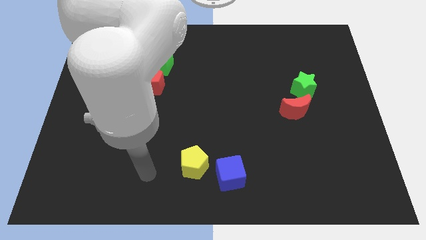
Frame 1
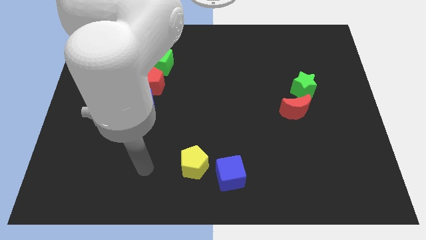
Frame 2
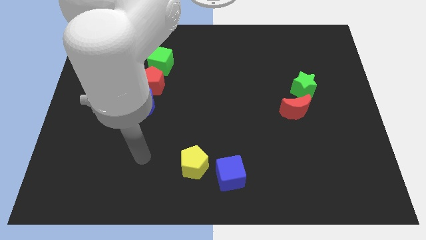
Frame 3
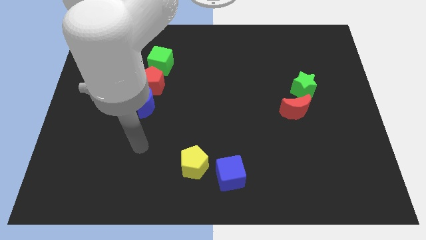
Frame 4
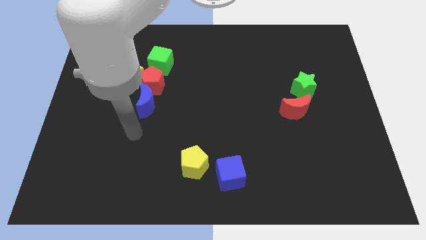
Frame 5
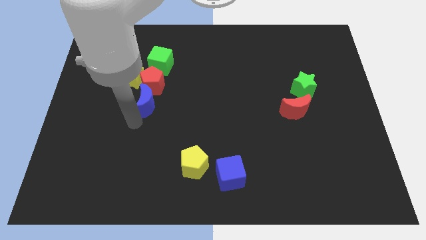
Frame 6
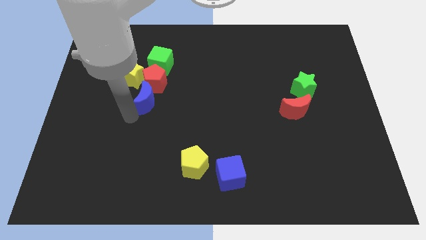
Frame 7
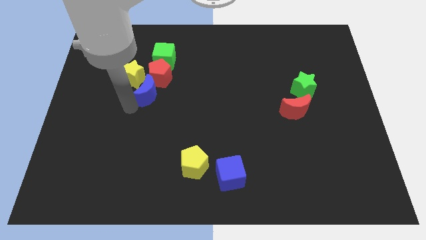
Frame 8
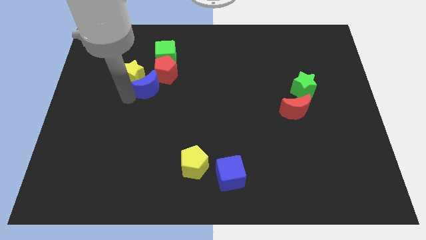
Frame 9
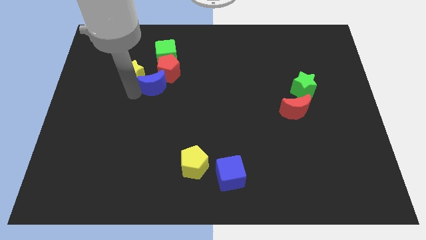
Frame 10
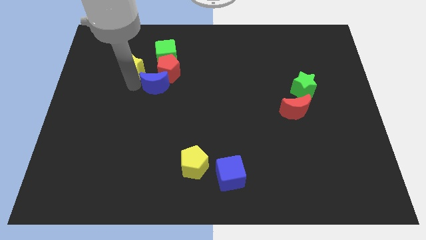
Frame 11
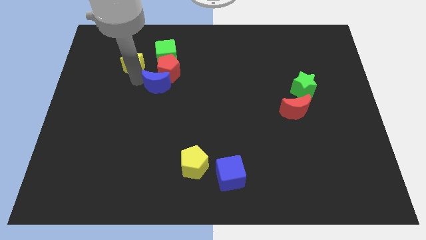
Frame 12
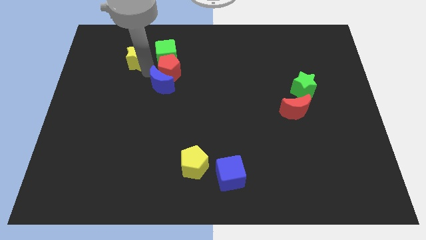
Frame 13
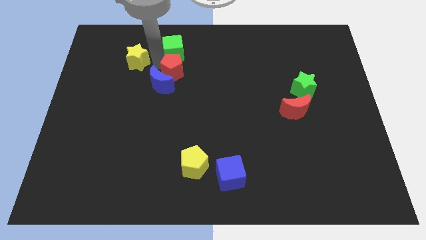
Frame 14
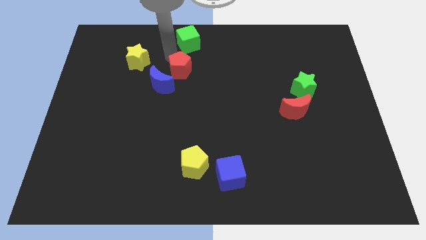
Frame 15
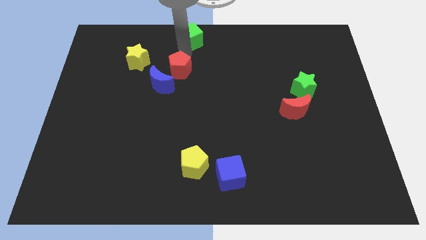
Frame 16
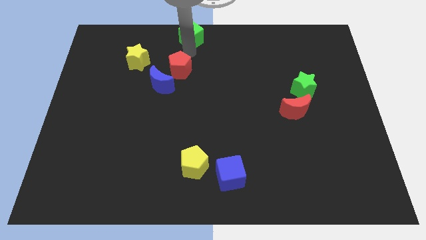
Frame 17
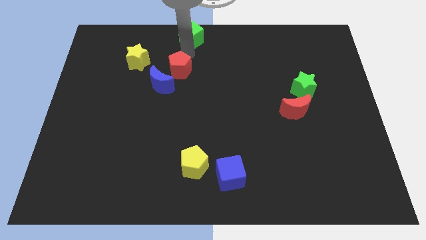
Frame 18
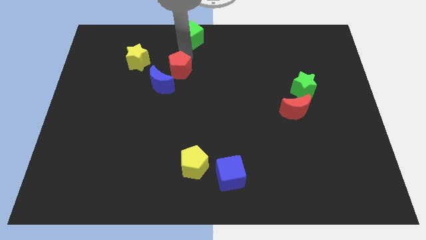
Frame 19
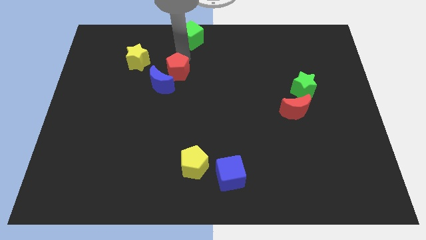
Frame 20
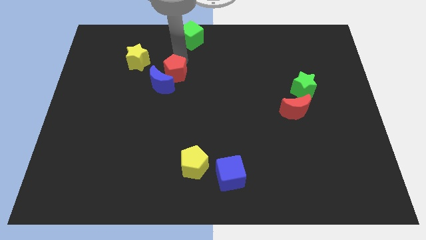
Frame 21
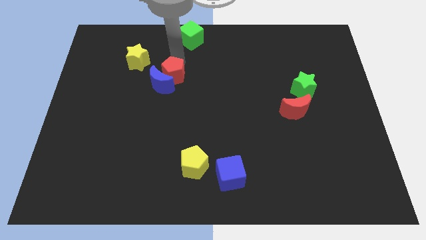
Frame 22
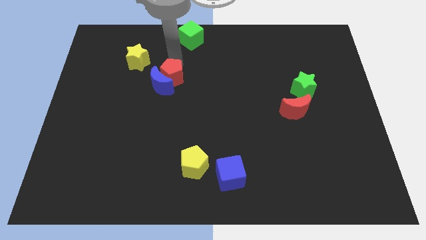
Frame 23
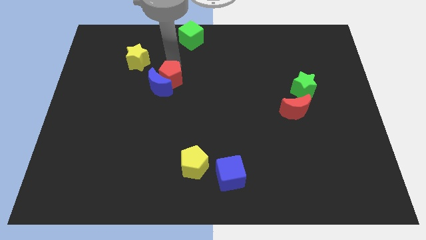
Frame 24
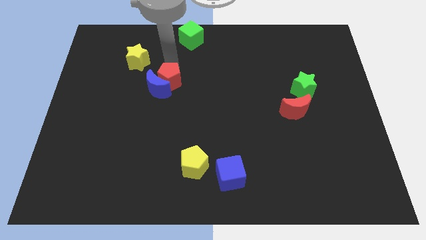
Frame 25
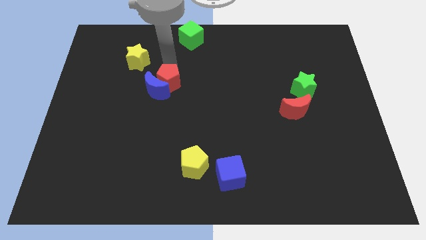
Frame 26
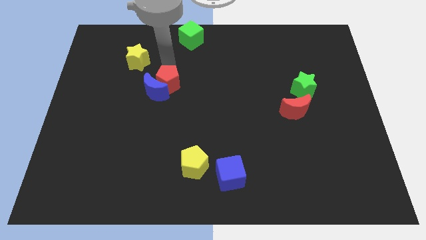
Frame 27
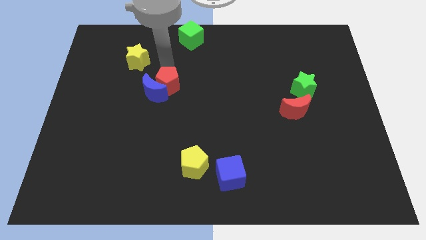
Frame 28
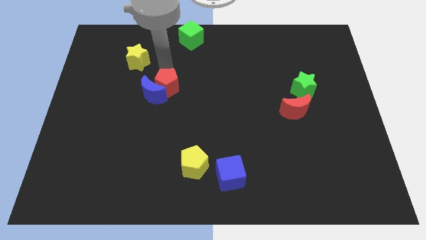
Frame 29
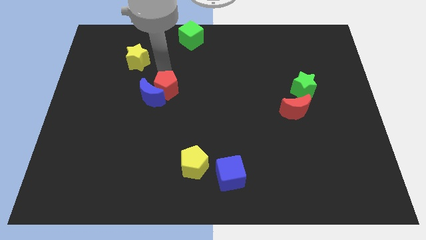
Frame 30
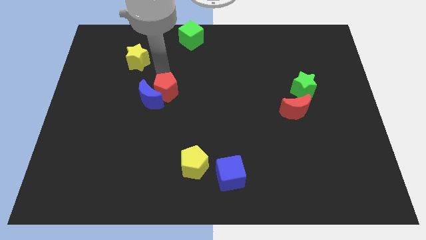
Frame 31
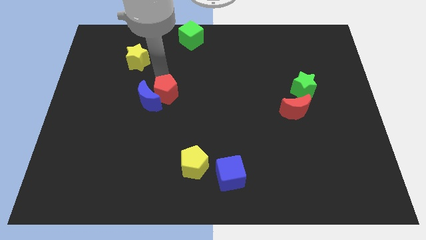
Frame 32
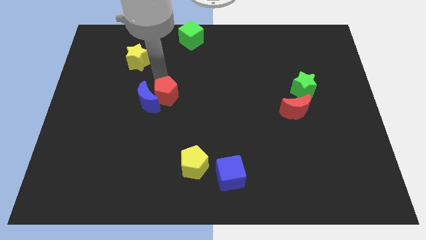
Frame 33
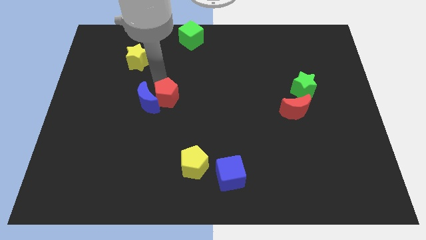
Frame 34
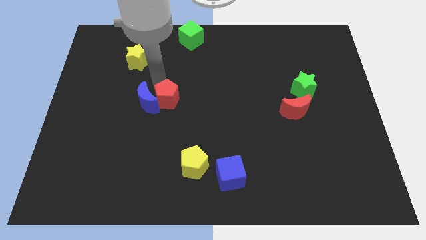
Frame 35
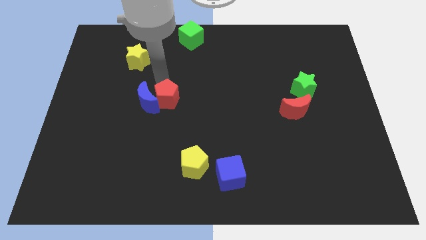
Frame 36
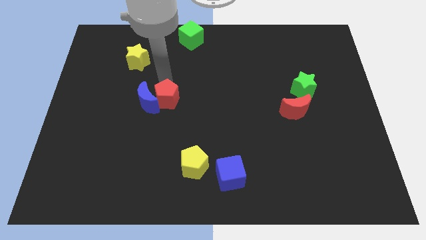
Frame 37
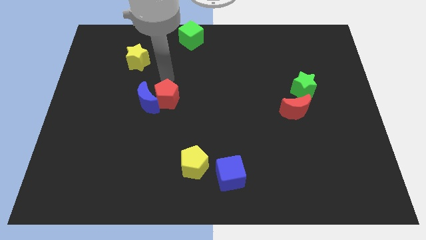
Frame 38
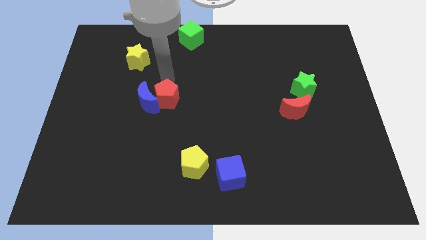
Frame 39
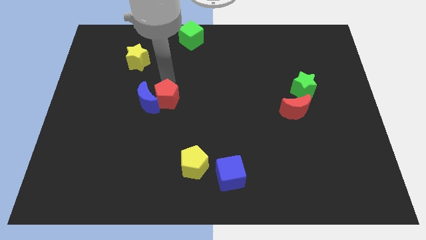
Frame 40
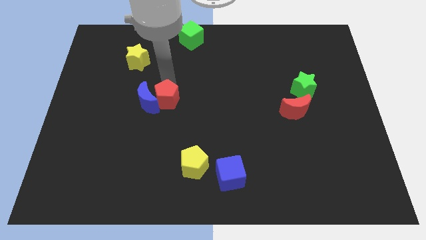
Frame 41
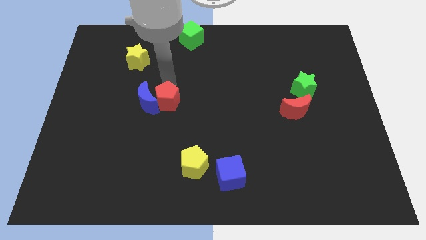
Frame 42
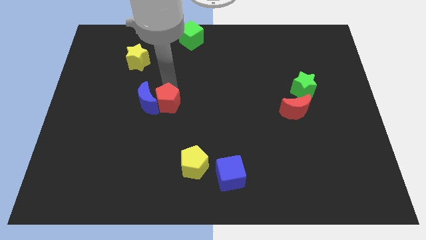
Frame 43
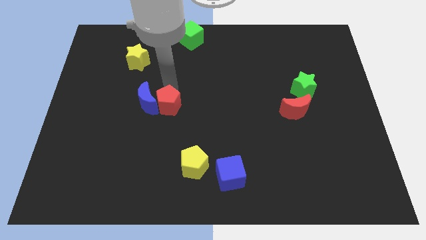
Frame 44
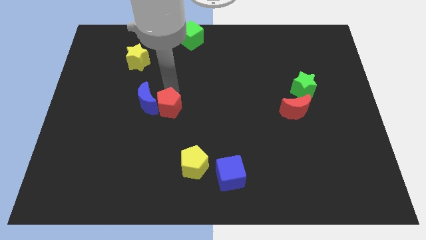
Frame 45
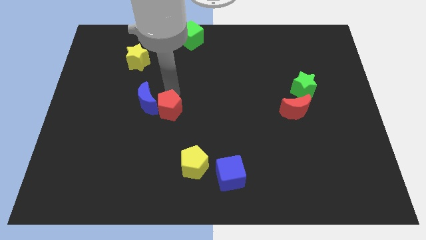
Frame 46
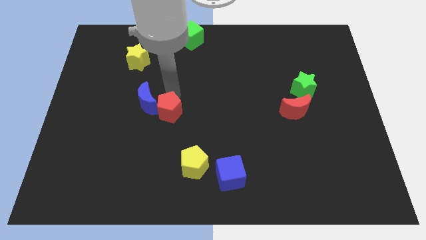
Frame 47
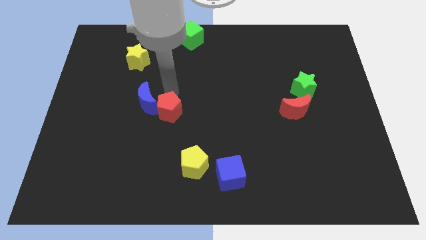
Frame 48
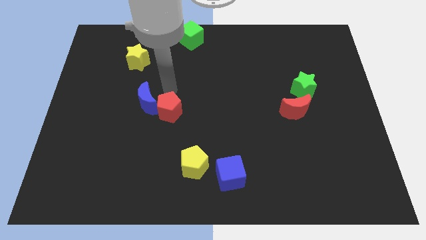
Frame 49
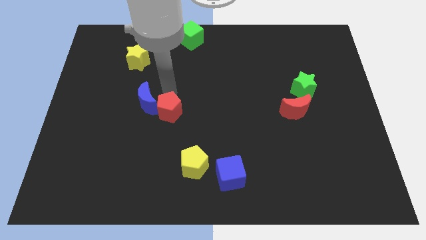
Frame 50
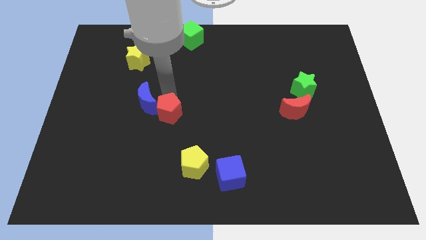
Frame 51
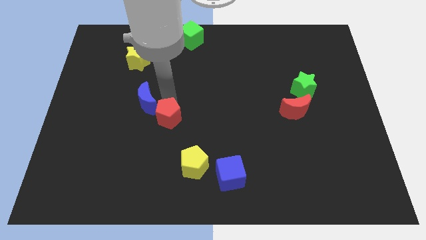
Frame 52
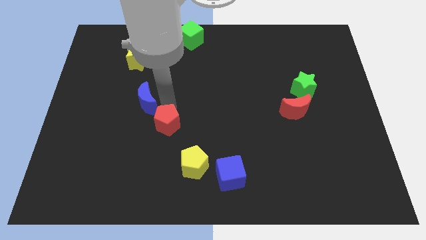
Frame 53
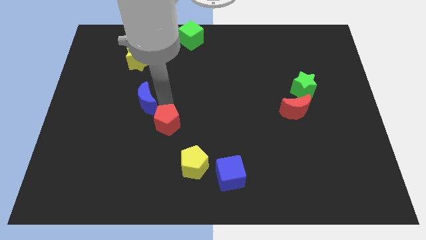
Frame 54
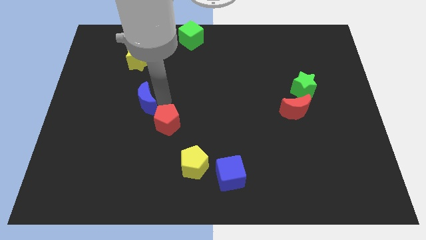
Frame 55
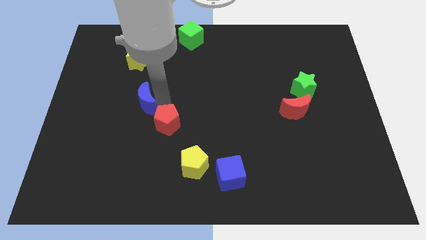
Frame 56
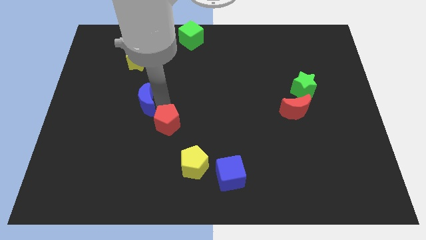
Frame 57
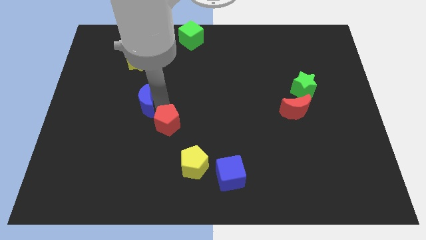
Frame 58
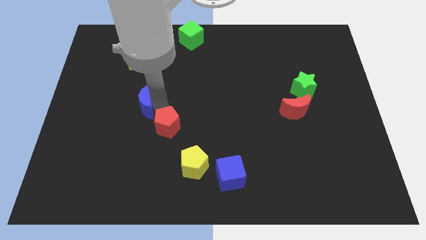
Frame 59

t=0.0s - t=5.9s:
slide the red pentagon to the top left side of the yellow pentagon

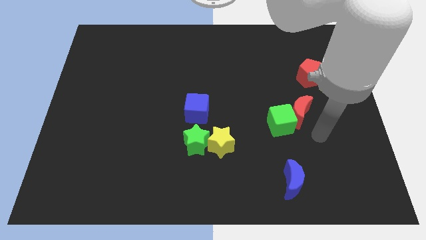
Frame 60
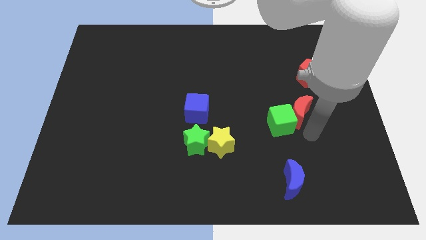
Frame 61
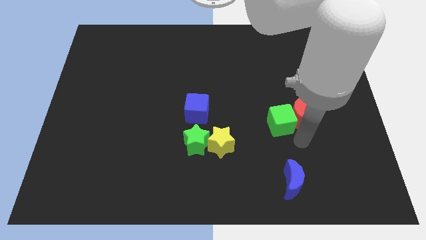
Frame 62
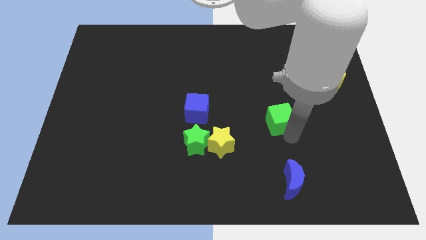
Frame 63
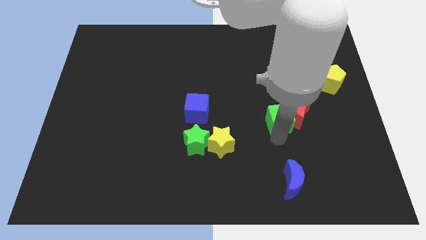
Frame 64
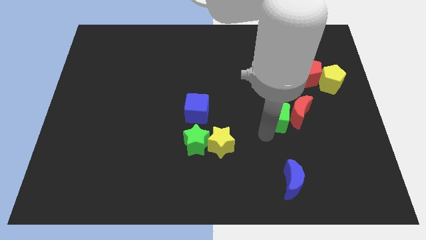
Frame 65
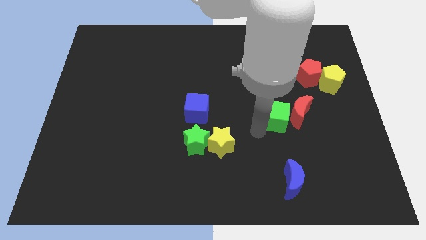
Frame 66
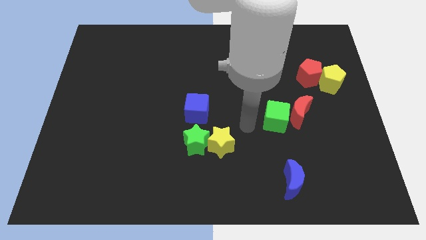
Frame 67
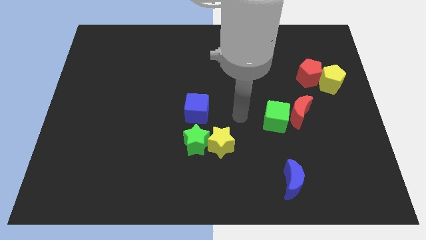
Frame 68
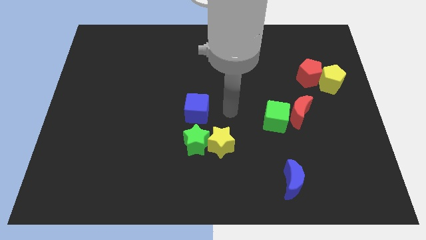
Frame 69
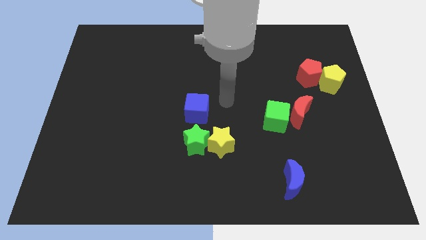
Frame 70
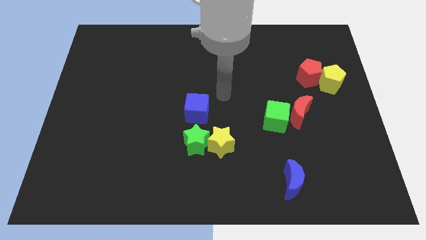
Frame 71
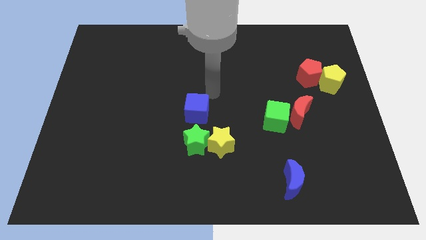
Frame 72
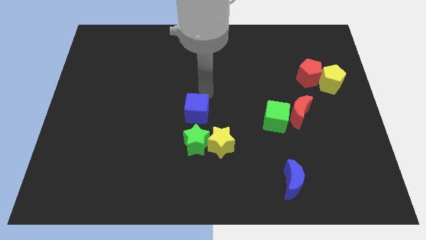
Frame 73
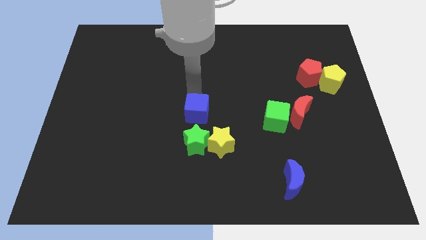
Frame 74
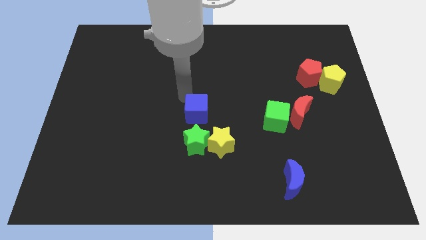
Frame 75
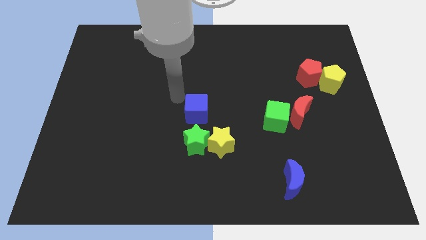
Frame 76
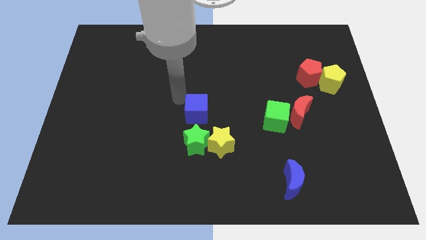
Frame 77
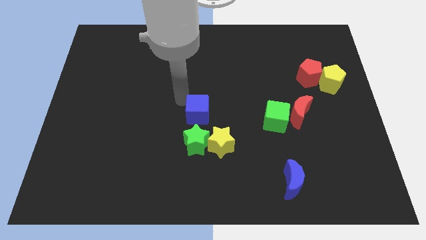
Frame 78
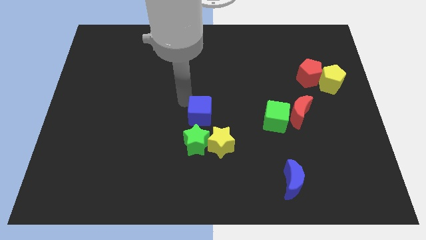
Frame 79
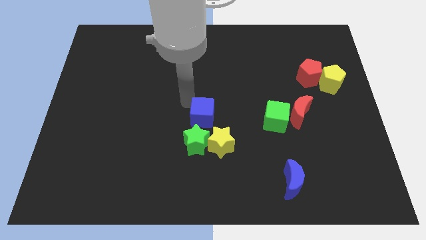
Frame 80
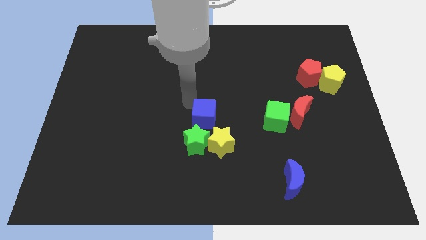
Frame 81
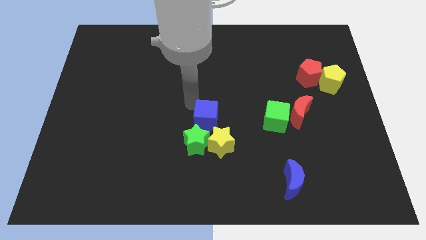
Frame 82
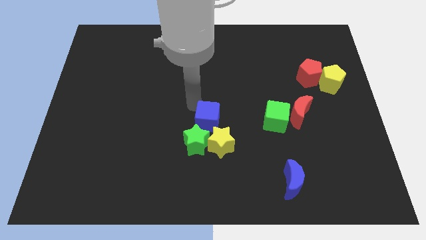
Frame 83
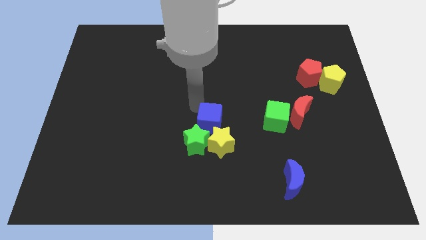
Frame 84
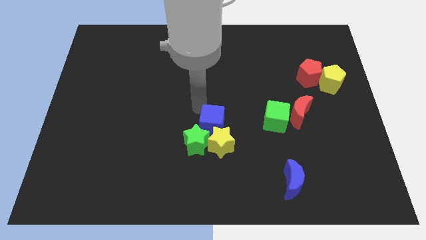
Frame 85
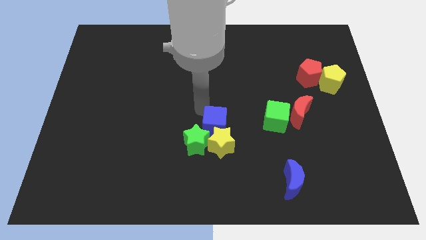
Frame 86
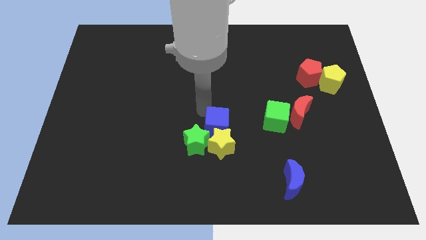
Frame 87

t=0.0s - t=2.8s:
move the blue cube right of the green star
